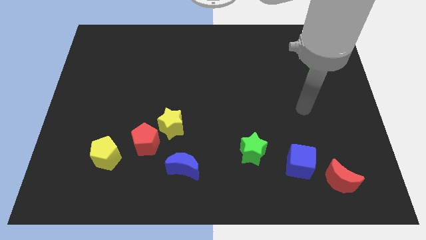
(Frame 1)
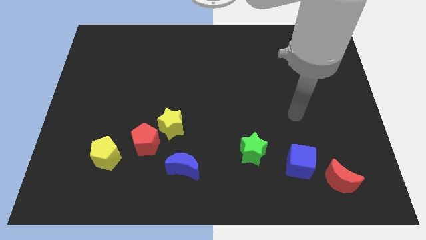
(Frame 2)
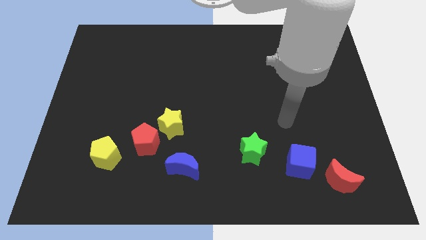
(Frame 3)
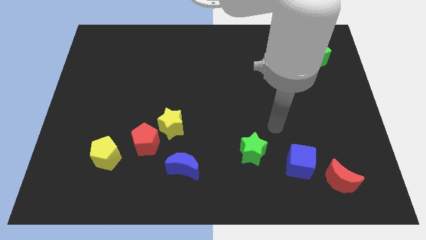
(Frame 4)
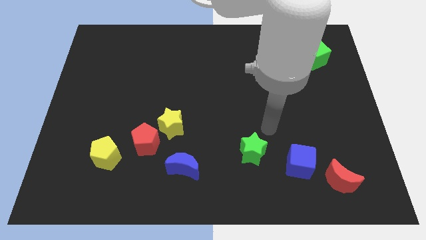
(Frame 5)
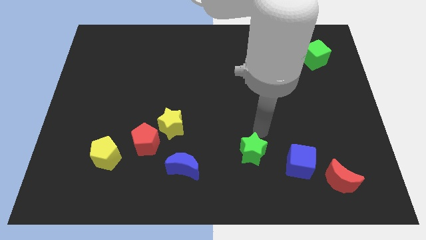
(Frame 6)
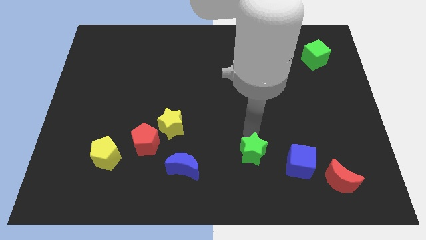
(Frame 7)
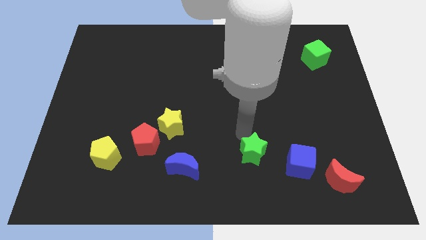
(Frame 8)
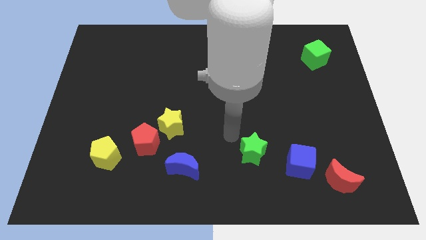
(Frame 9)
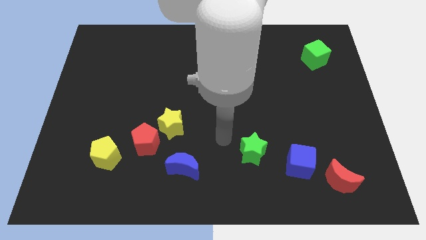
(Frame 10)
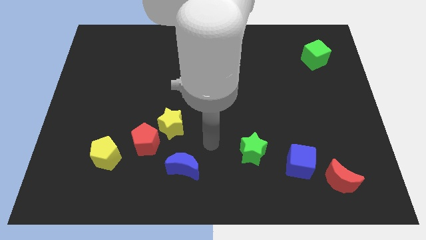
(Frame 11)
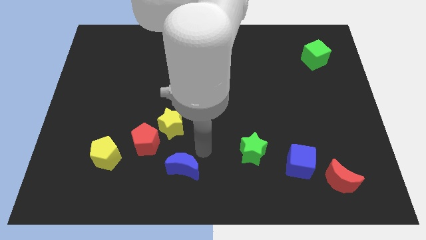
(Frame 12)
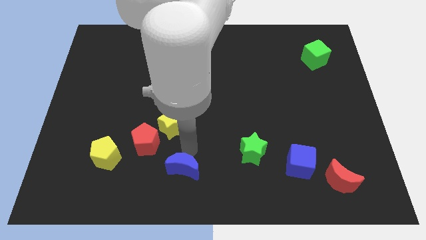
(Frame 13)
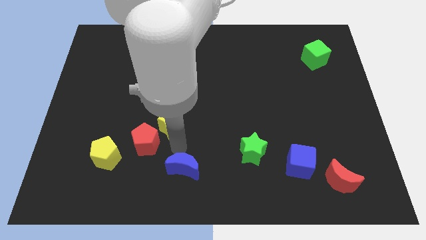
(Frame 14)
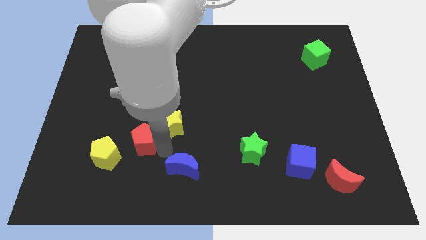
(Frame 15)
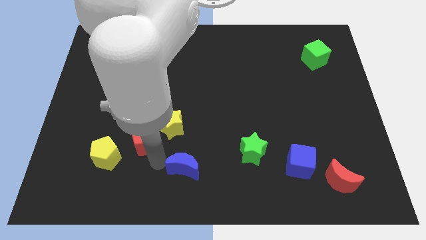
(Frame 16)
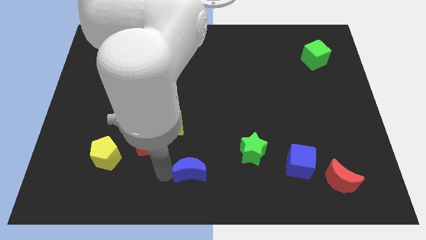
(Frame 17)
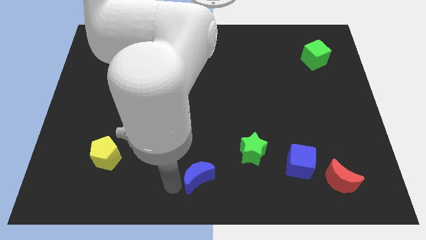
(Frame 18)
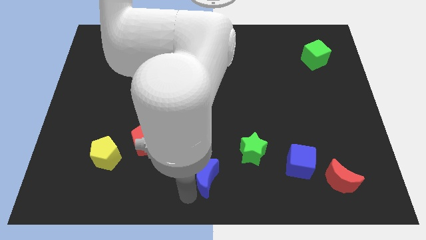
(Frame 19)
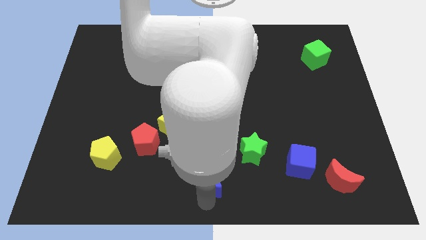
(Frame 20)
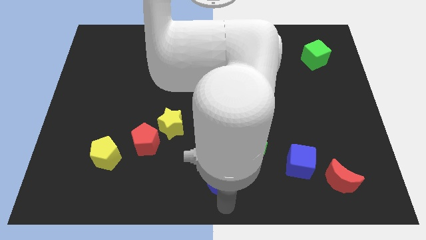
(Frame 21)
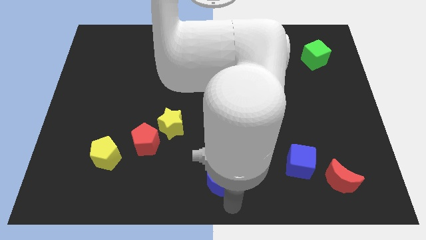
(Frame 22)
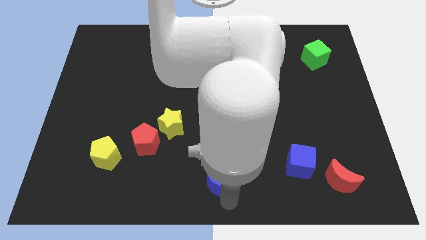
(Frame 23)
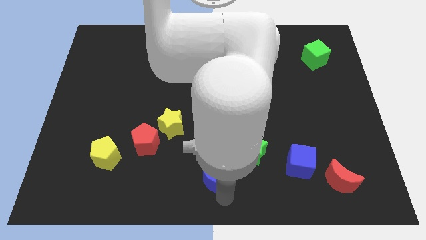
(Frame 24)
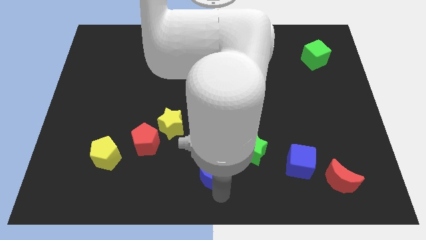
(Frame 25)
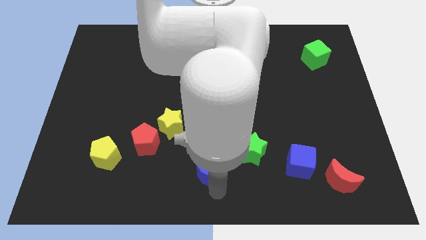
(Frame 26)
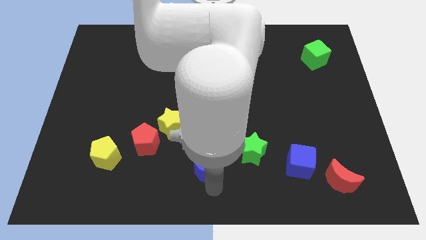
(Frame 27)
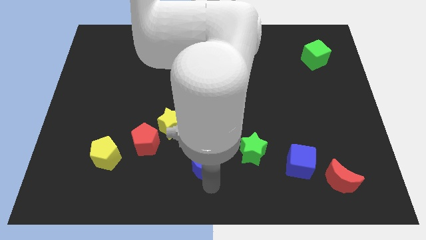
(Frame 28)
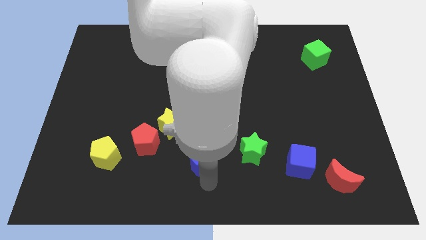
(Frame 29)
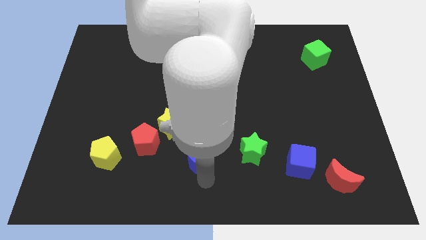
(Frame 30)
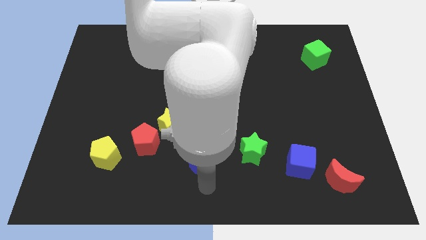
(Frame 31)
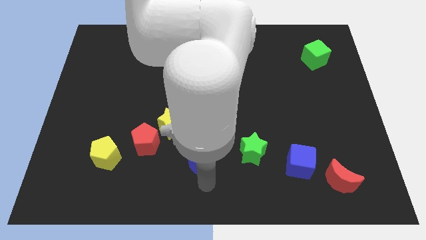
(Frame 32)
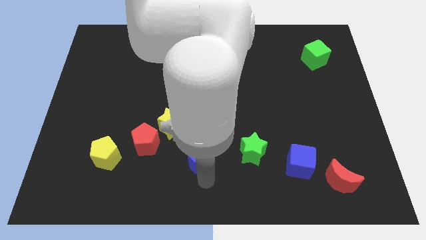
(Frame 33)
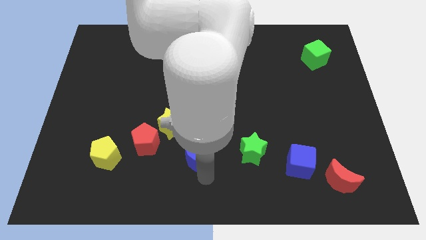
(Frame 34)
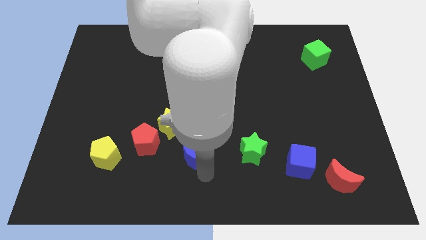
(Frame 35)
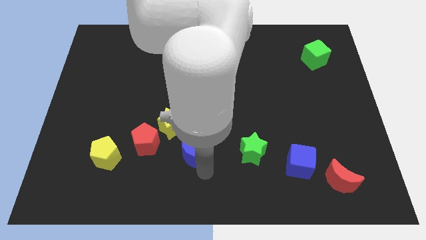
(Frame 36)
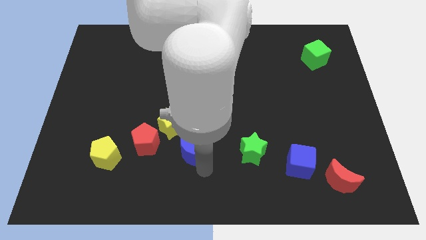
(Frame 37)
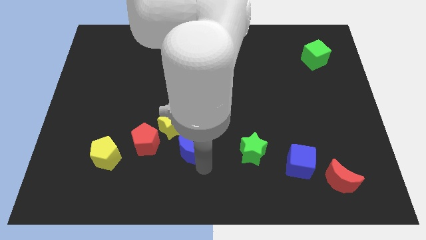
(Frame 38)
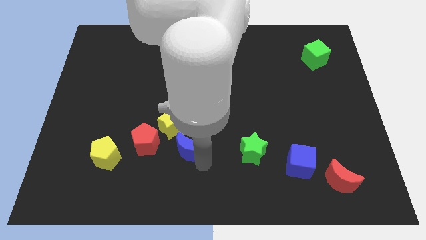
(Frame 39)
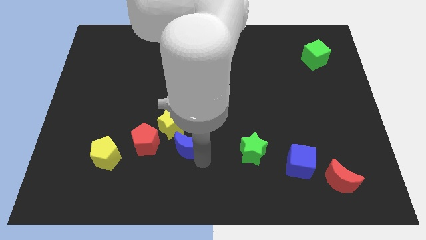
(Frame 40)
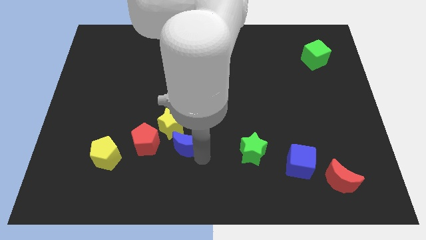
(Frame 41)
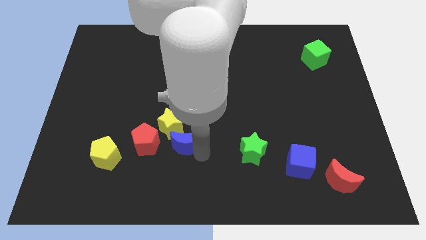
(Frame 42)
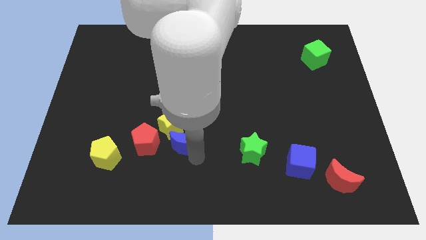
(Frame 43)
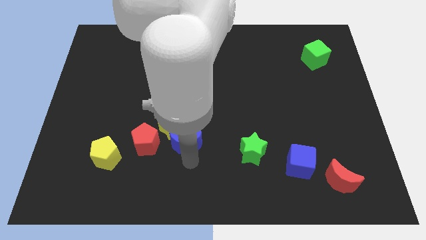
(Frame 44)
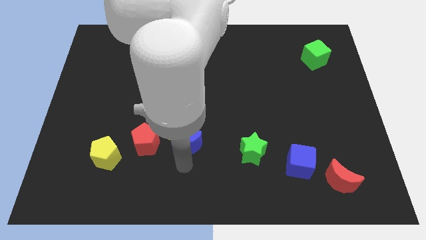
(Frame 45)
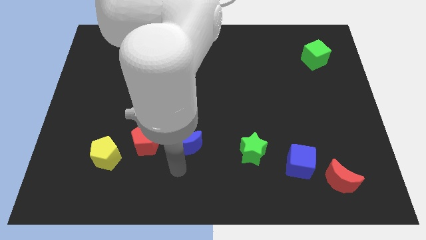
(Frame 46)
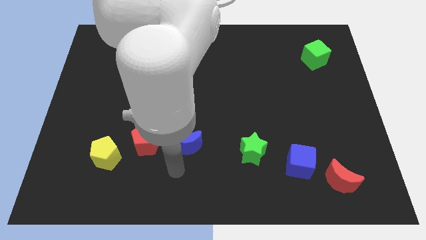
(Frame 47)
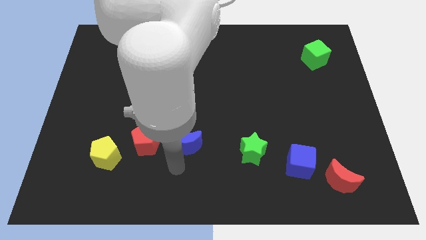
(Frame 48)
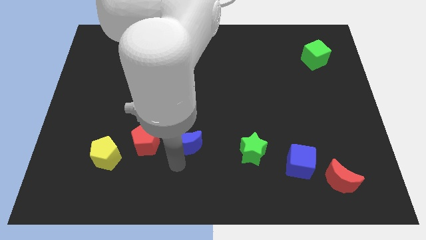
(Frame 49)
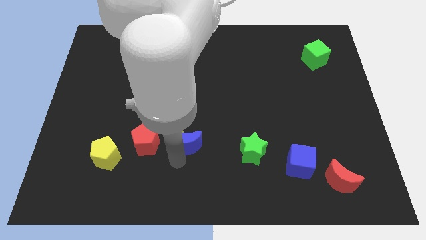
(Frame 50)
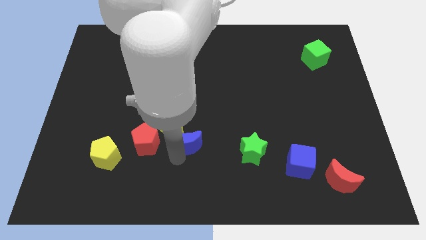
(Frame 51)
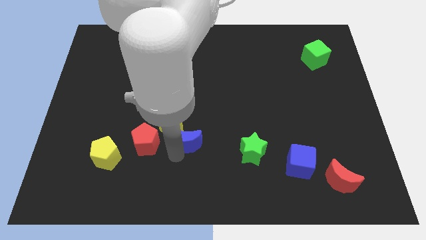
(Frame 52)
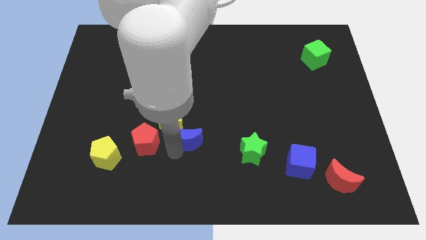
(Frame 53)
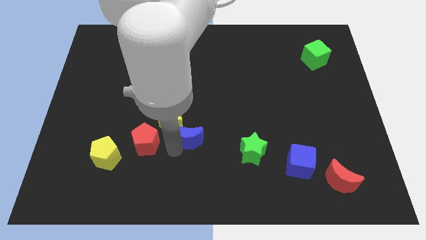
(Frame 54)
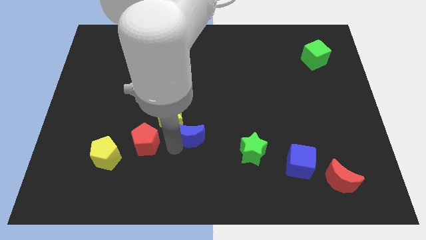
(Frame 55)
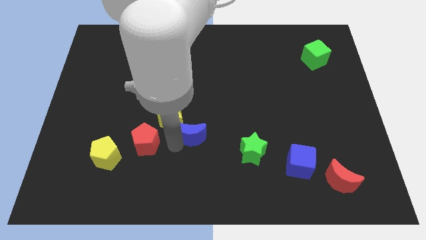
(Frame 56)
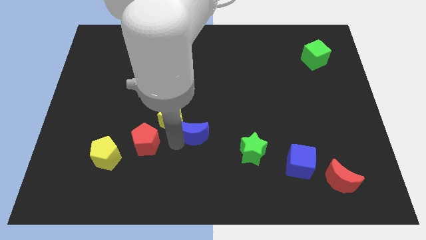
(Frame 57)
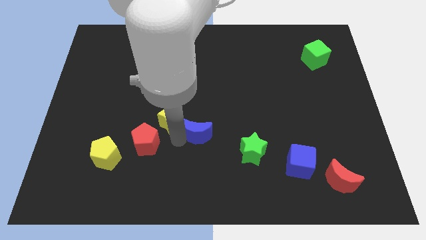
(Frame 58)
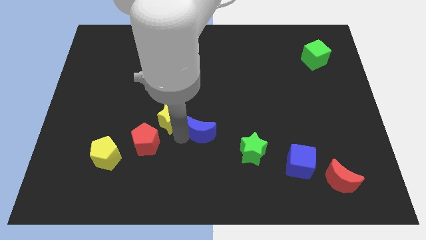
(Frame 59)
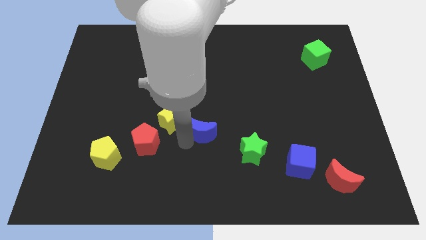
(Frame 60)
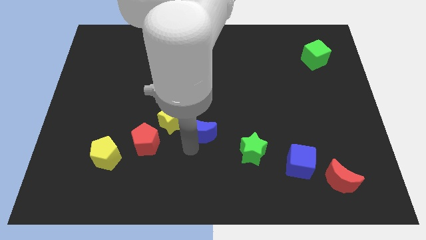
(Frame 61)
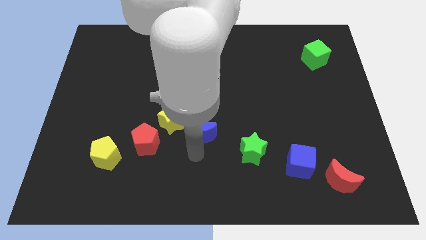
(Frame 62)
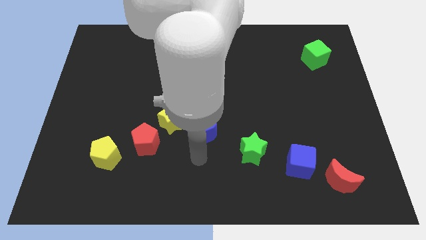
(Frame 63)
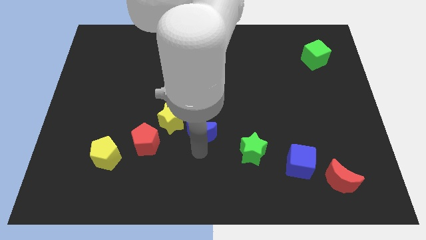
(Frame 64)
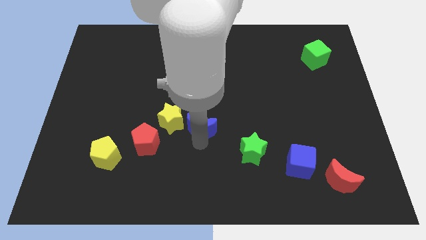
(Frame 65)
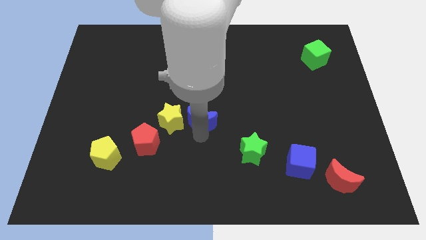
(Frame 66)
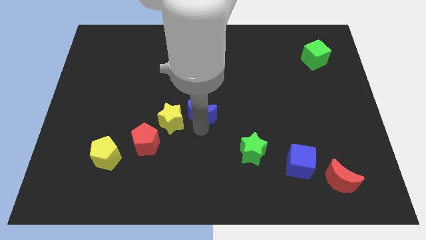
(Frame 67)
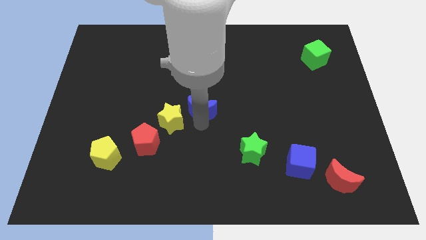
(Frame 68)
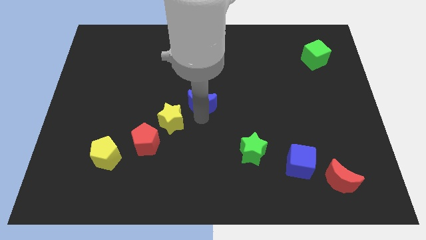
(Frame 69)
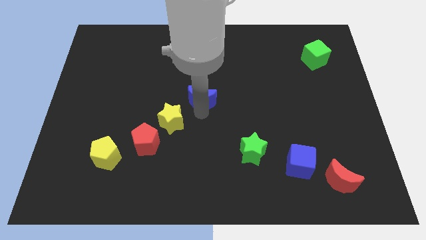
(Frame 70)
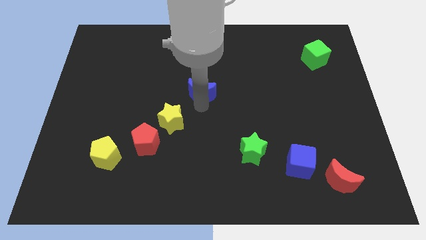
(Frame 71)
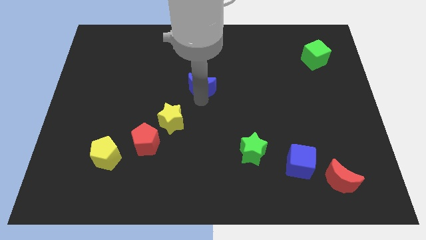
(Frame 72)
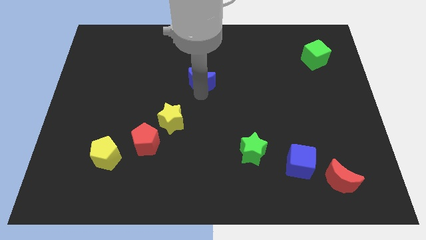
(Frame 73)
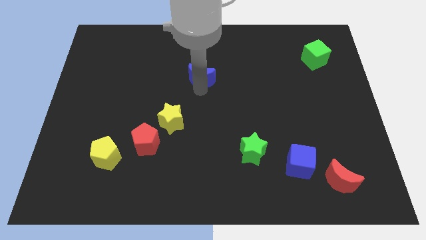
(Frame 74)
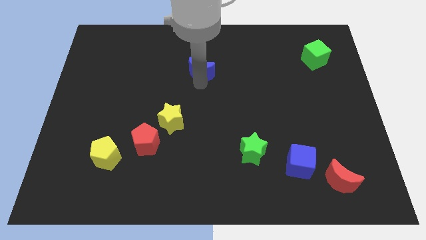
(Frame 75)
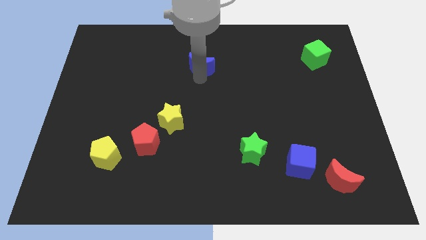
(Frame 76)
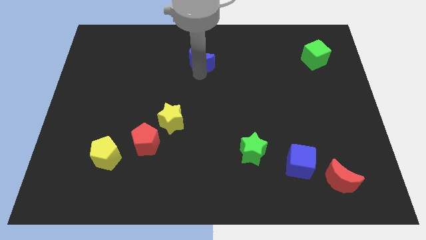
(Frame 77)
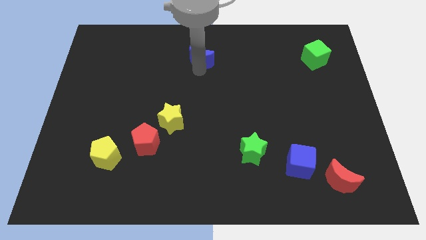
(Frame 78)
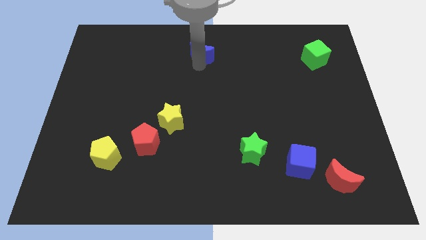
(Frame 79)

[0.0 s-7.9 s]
move the blue moon to the top side
